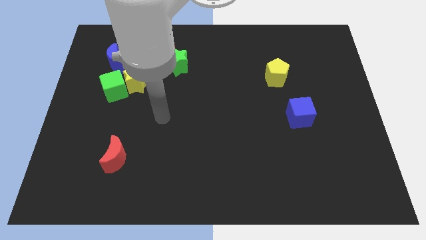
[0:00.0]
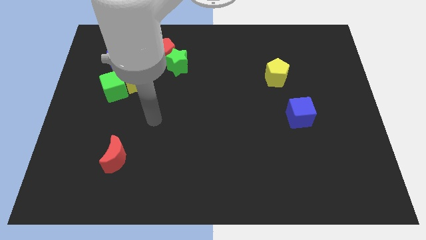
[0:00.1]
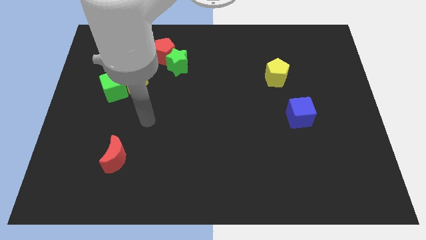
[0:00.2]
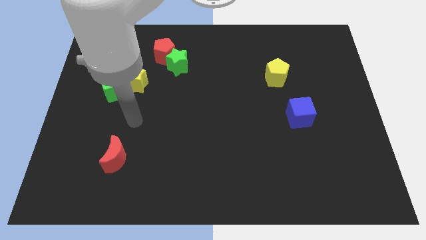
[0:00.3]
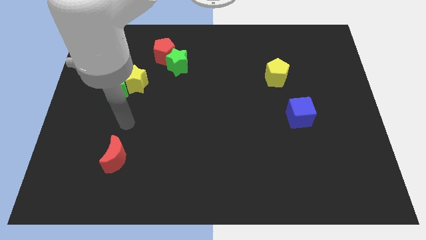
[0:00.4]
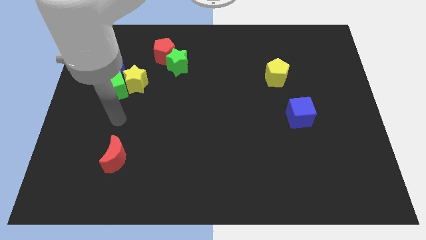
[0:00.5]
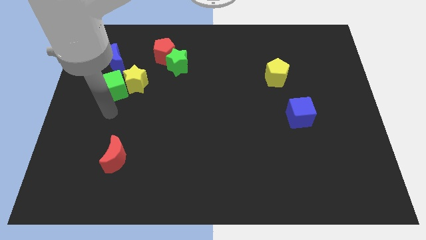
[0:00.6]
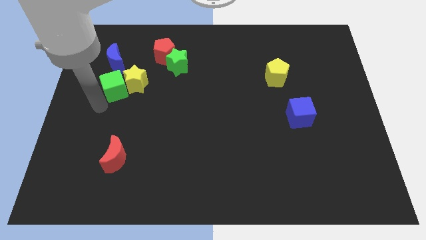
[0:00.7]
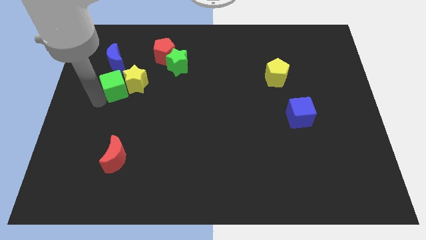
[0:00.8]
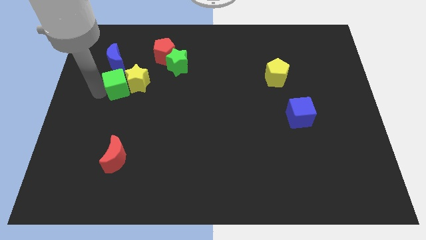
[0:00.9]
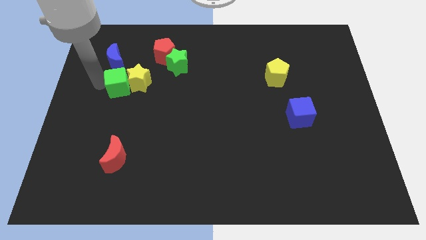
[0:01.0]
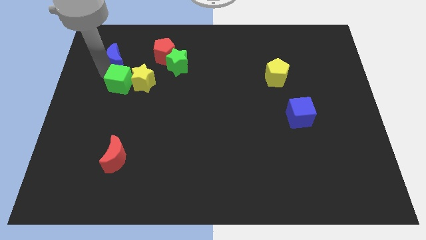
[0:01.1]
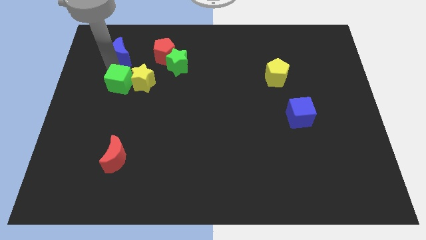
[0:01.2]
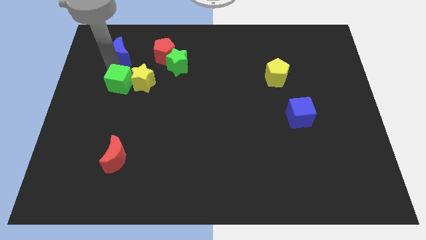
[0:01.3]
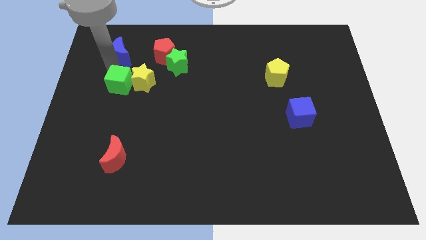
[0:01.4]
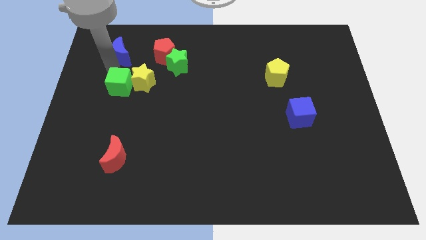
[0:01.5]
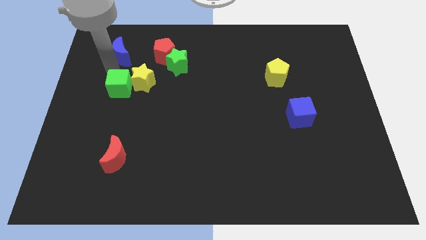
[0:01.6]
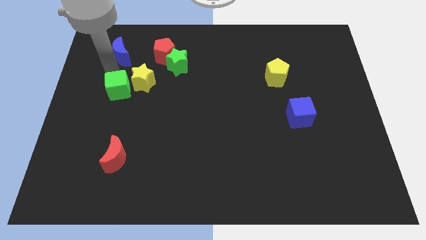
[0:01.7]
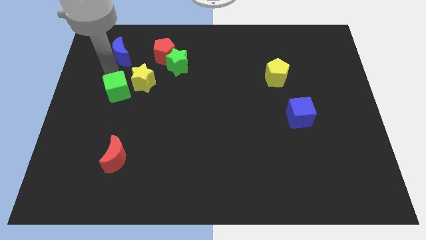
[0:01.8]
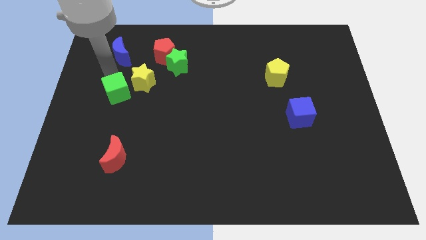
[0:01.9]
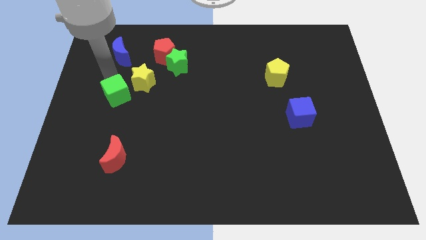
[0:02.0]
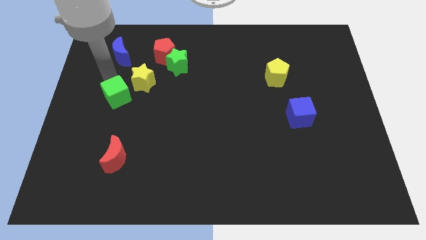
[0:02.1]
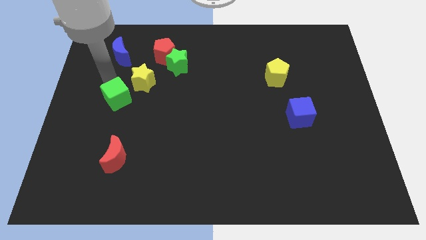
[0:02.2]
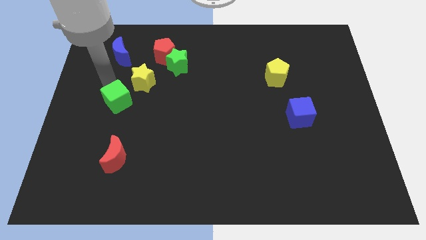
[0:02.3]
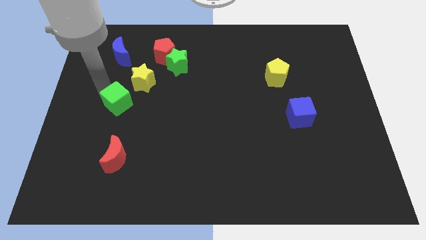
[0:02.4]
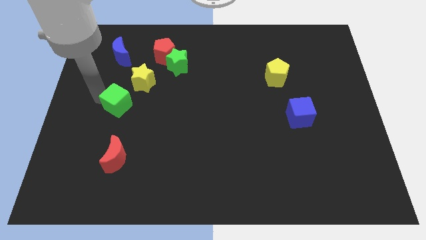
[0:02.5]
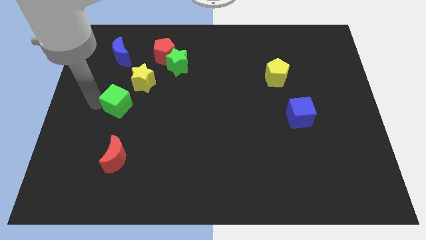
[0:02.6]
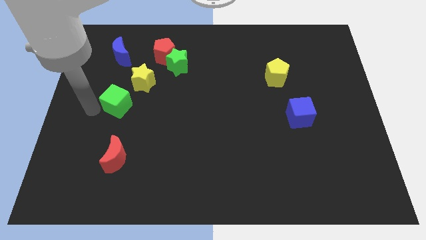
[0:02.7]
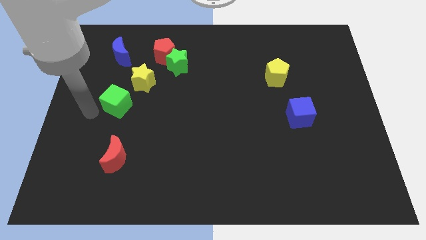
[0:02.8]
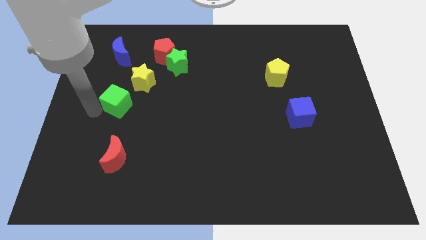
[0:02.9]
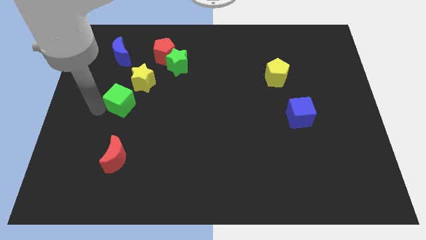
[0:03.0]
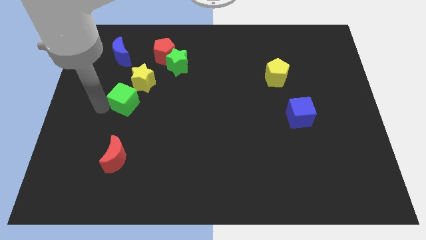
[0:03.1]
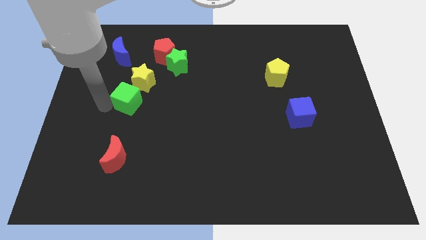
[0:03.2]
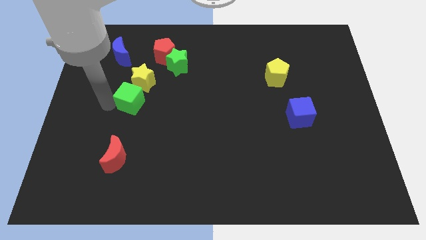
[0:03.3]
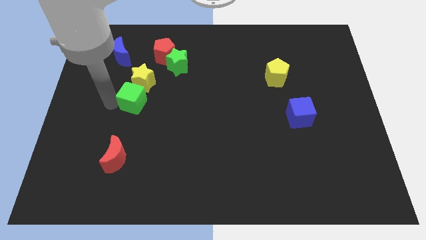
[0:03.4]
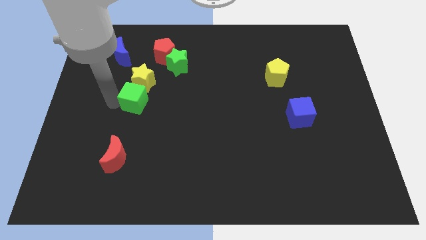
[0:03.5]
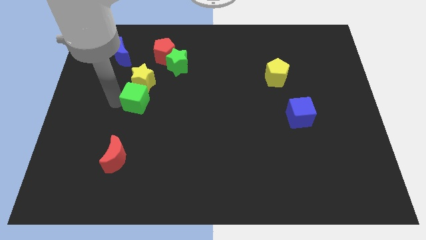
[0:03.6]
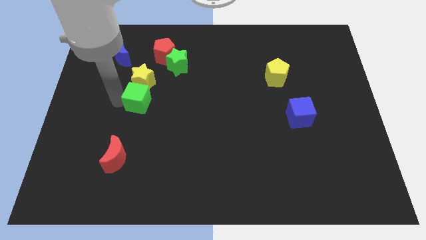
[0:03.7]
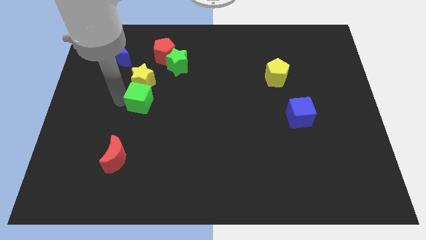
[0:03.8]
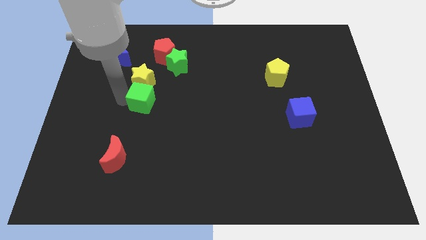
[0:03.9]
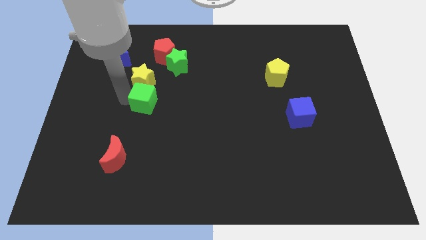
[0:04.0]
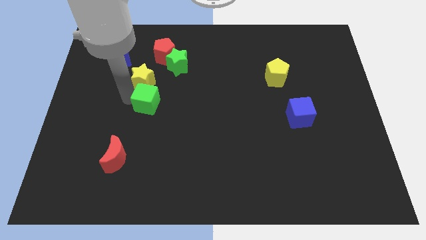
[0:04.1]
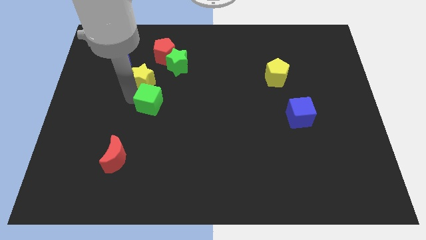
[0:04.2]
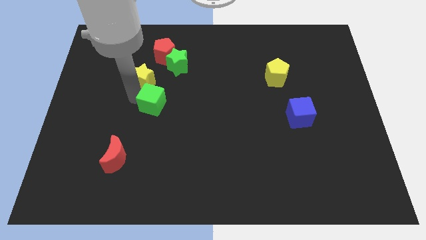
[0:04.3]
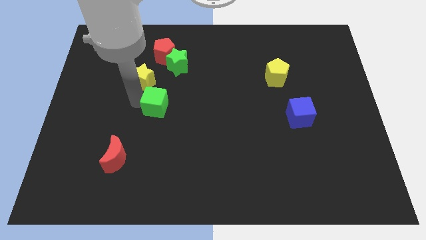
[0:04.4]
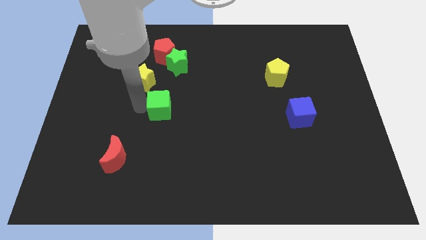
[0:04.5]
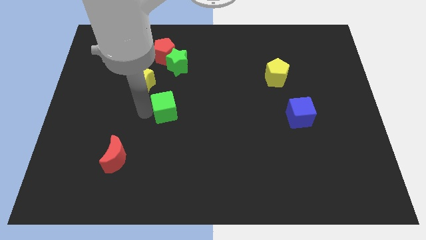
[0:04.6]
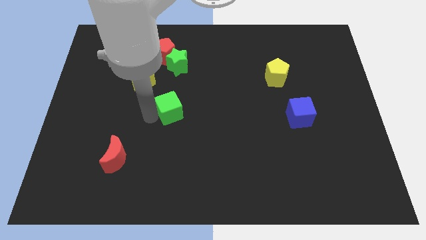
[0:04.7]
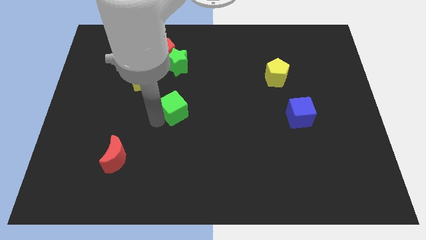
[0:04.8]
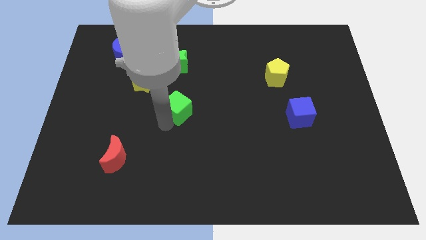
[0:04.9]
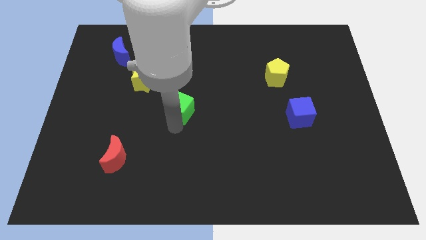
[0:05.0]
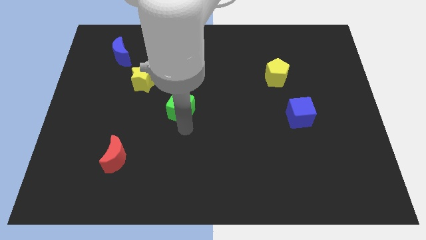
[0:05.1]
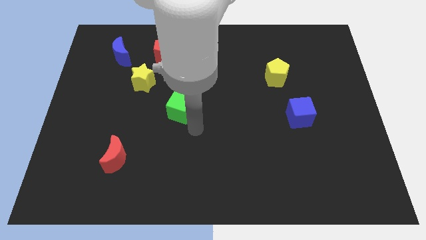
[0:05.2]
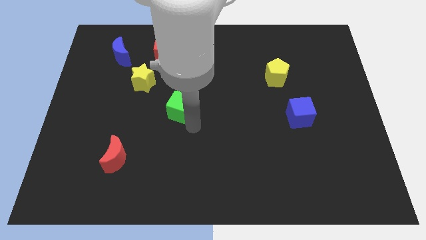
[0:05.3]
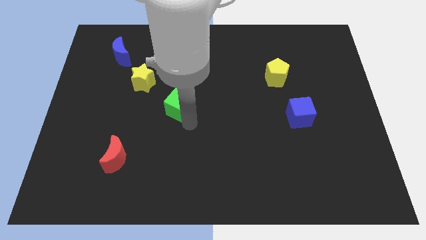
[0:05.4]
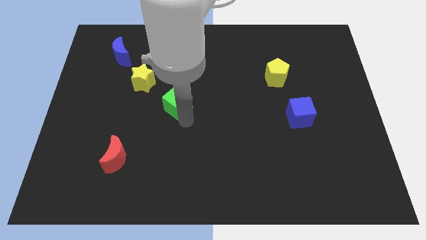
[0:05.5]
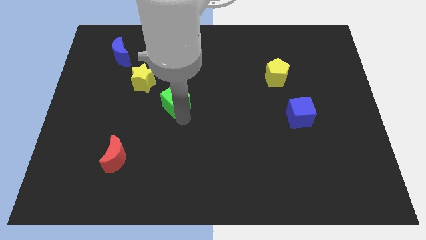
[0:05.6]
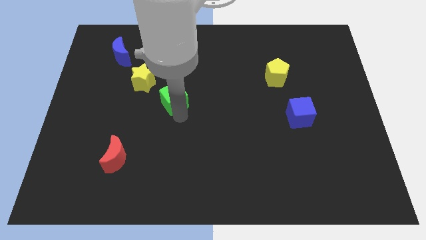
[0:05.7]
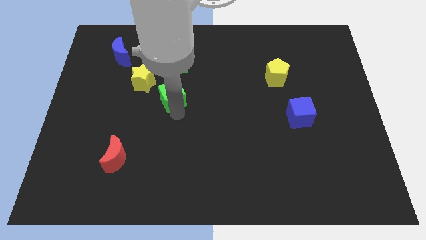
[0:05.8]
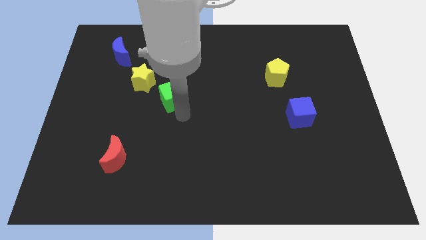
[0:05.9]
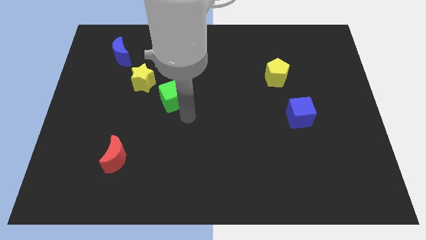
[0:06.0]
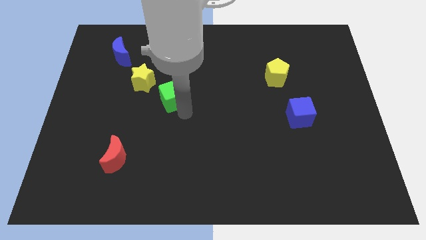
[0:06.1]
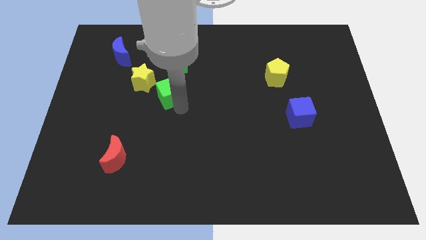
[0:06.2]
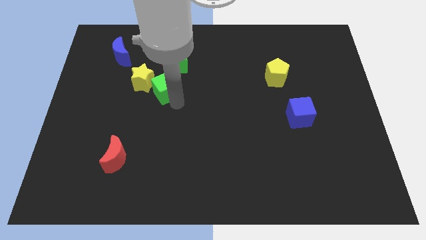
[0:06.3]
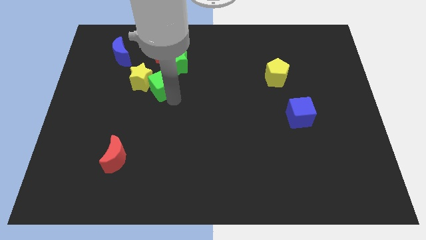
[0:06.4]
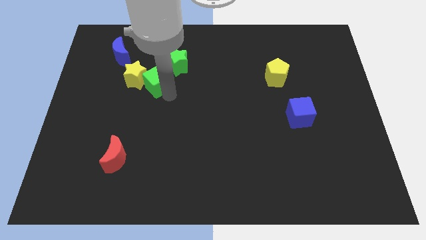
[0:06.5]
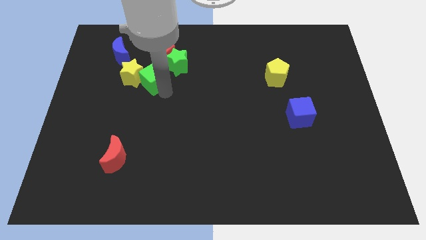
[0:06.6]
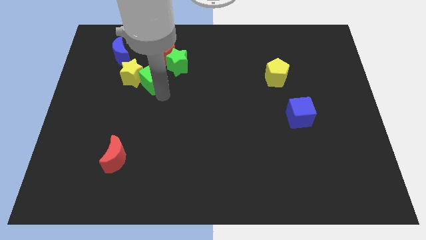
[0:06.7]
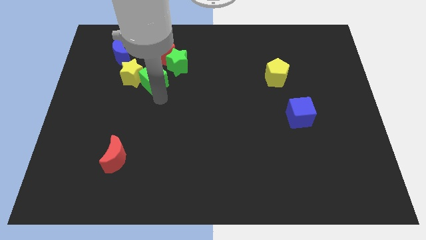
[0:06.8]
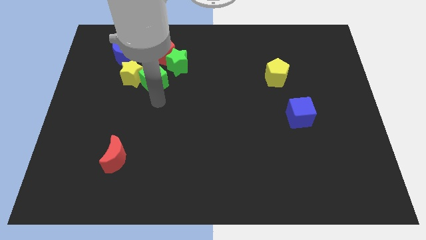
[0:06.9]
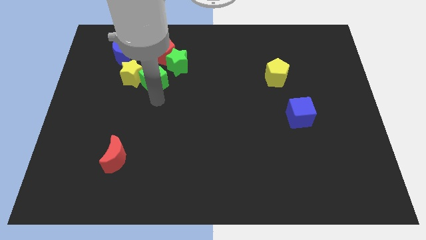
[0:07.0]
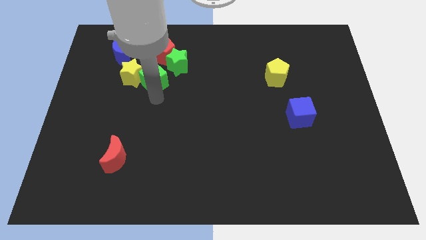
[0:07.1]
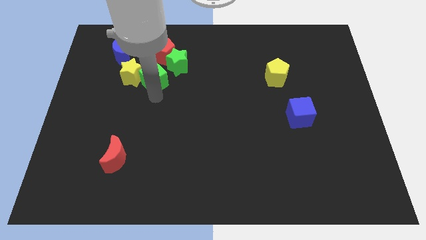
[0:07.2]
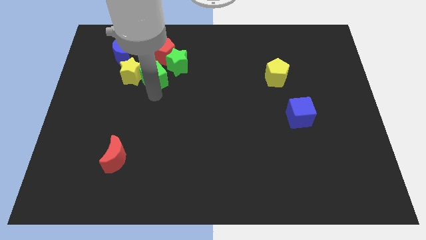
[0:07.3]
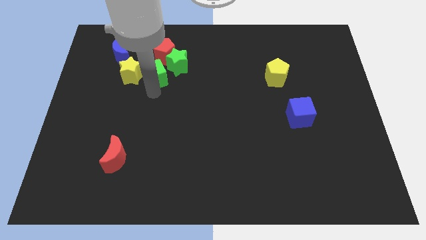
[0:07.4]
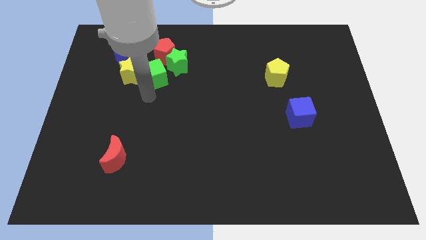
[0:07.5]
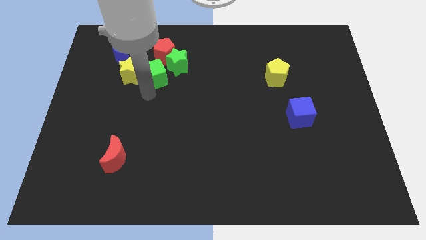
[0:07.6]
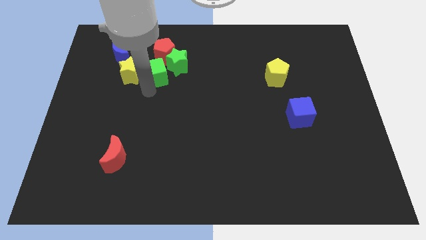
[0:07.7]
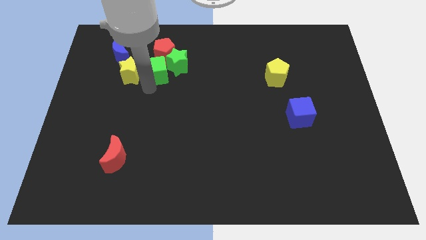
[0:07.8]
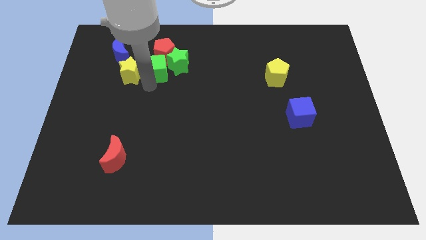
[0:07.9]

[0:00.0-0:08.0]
slide the green cube to the red pentagon
